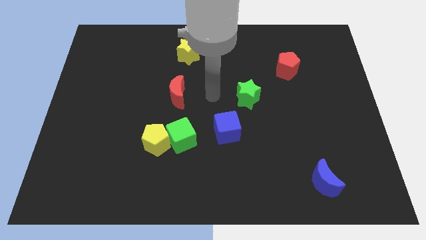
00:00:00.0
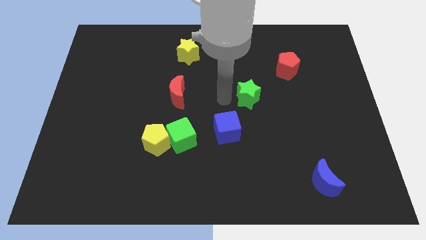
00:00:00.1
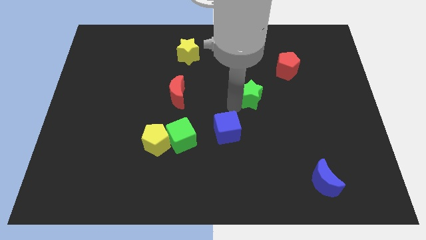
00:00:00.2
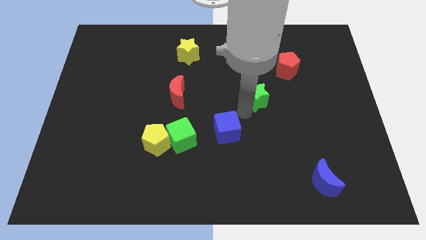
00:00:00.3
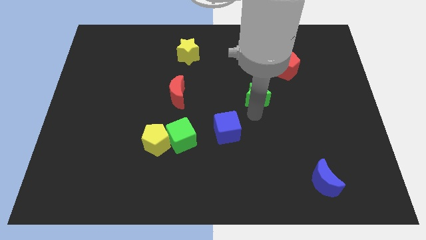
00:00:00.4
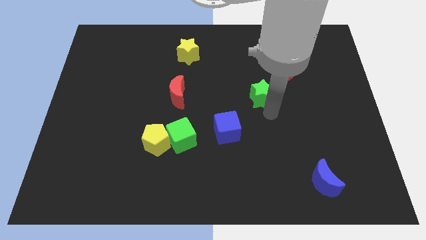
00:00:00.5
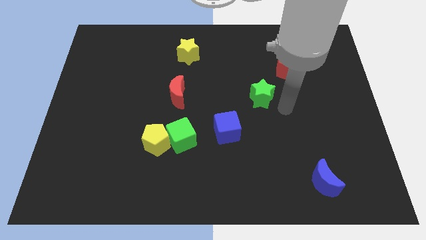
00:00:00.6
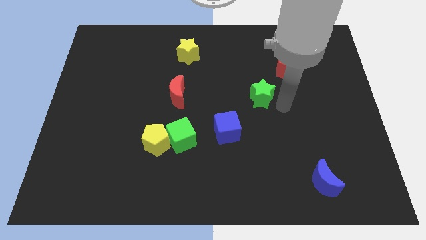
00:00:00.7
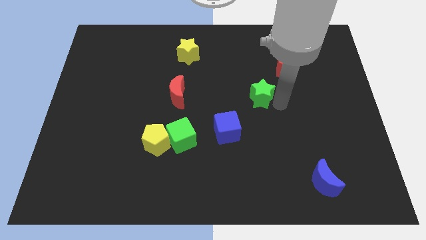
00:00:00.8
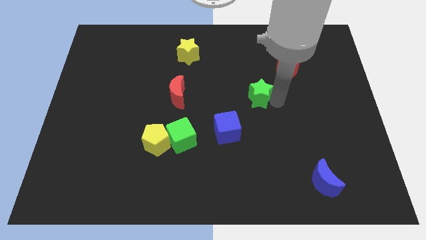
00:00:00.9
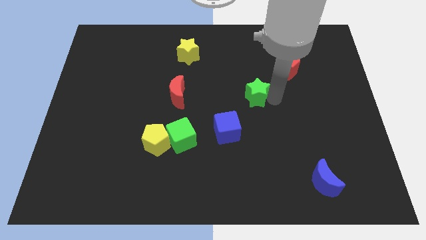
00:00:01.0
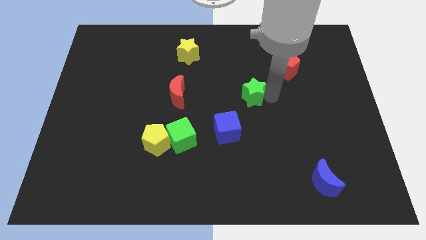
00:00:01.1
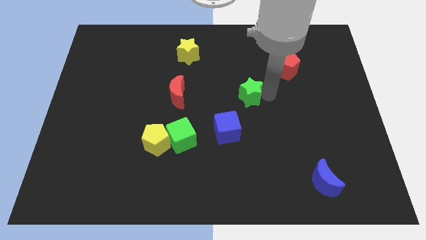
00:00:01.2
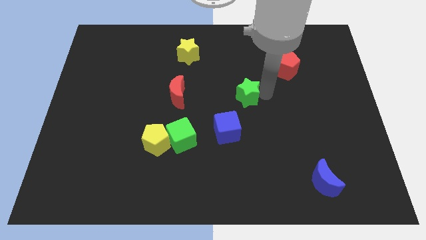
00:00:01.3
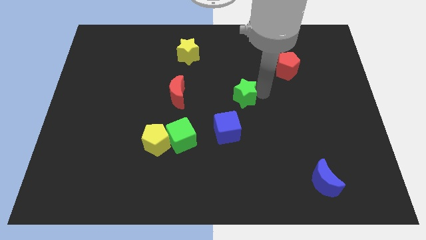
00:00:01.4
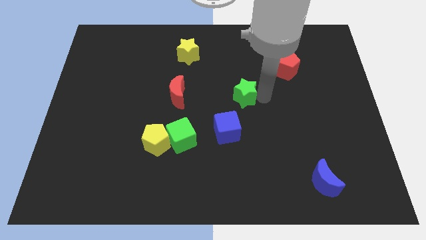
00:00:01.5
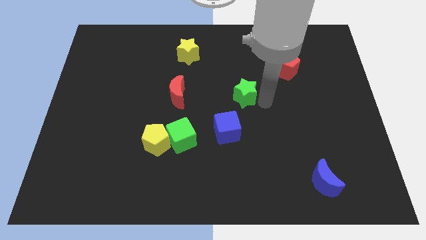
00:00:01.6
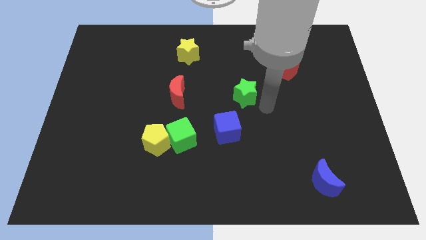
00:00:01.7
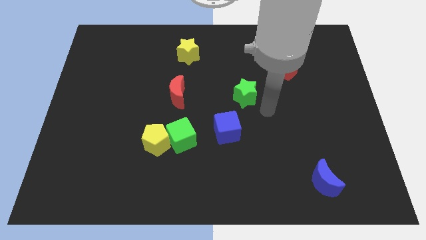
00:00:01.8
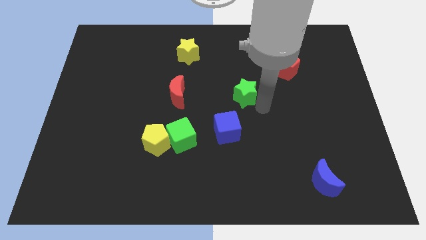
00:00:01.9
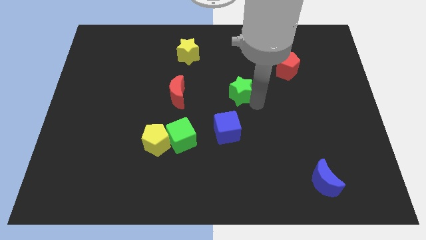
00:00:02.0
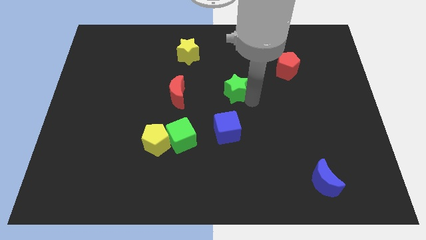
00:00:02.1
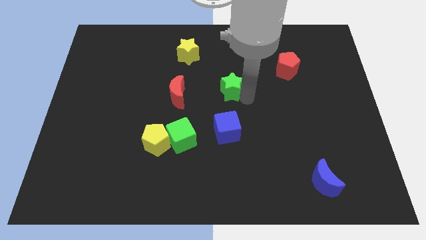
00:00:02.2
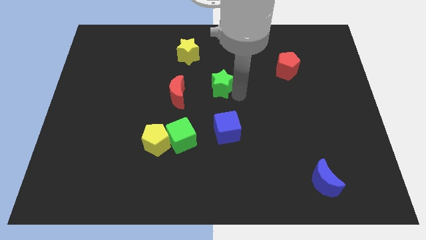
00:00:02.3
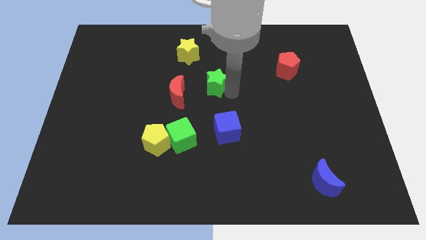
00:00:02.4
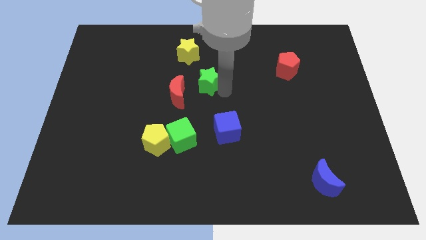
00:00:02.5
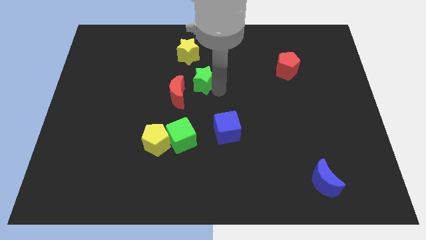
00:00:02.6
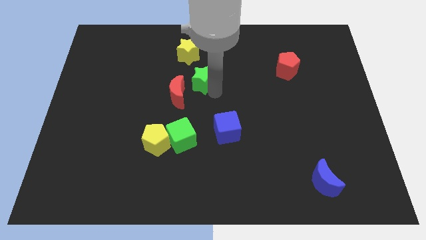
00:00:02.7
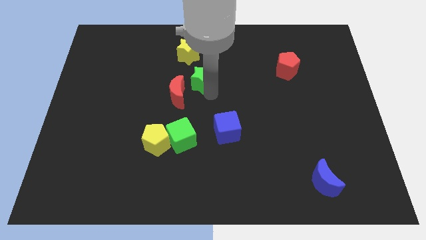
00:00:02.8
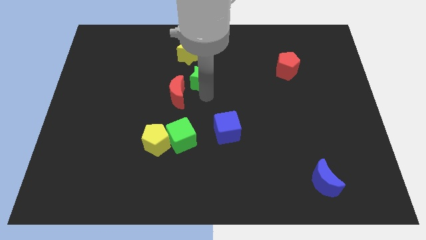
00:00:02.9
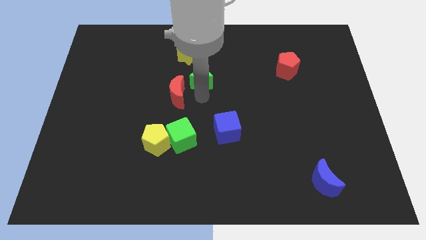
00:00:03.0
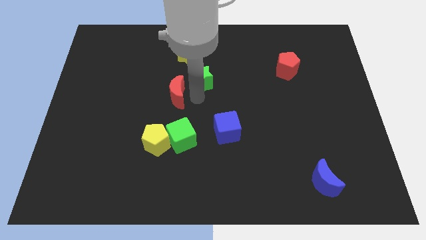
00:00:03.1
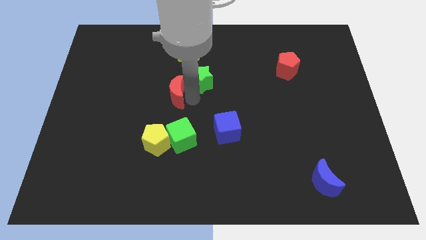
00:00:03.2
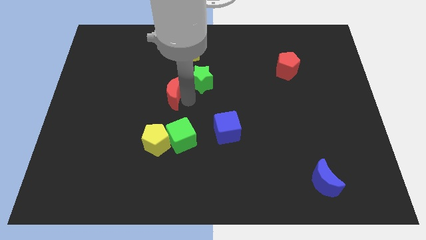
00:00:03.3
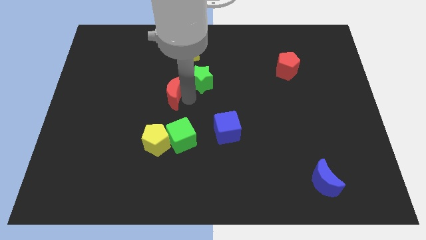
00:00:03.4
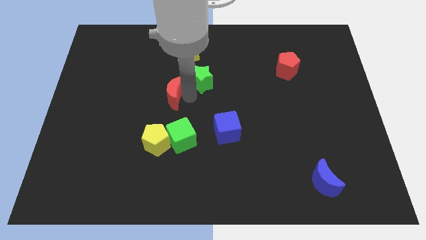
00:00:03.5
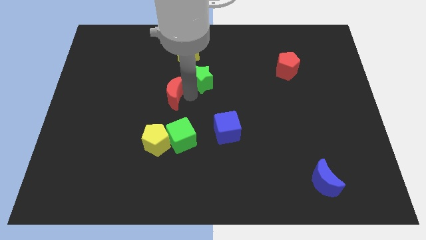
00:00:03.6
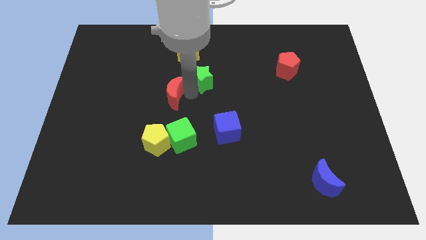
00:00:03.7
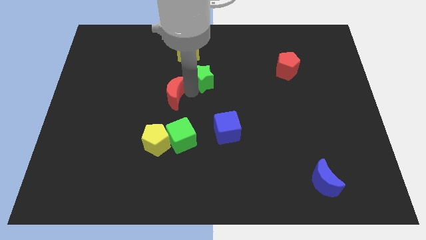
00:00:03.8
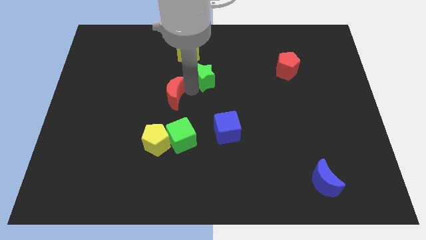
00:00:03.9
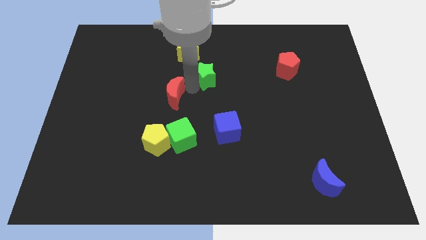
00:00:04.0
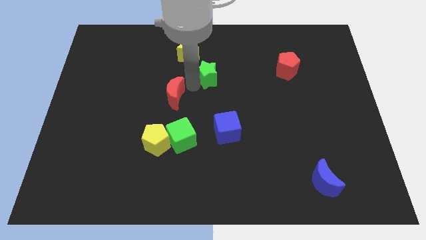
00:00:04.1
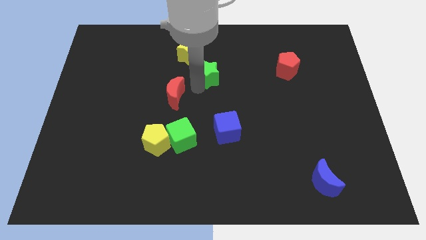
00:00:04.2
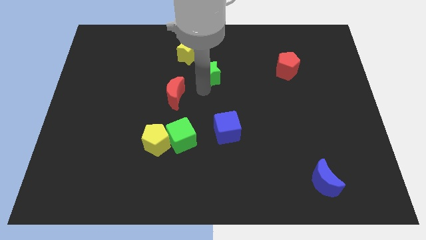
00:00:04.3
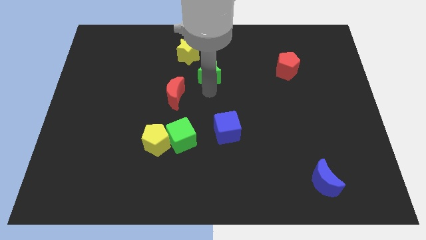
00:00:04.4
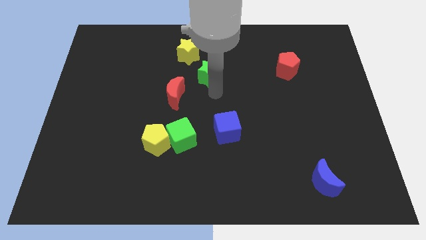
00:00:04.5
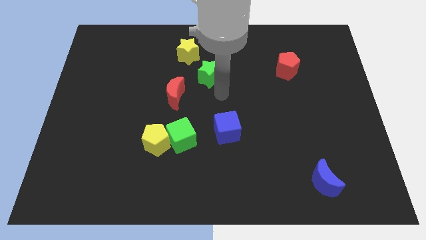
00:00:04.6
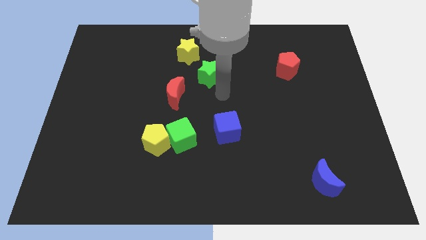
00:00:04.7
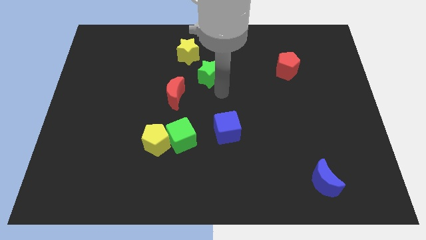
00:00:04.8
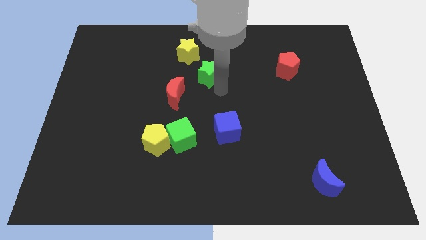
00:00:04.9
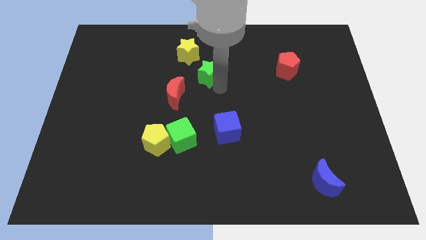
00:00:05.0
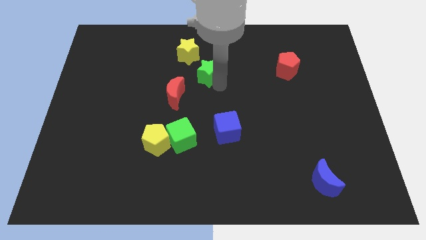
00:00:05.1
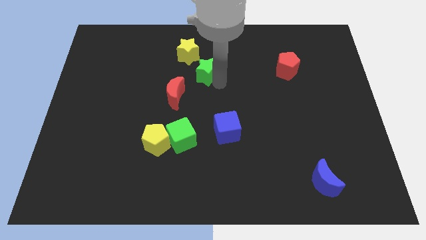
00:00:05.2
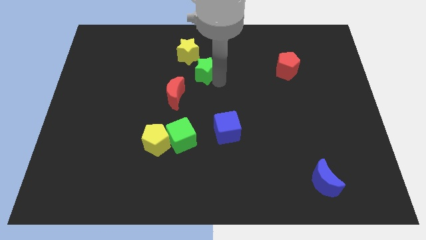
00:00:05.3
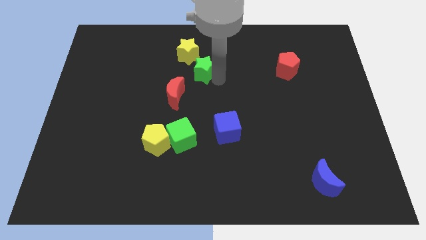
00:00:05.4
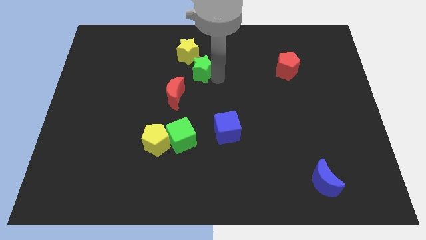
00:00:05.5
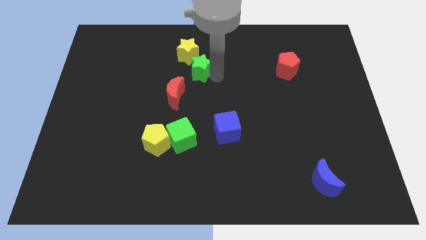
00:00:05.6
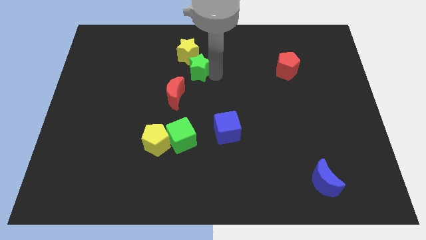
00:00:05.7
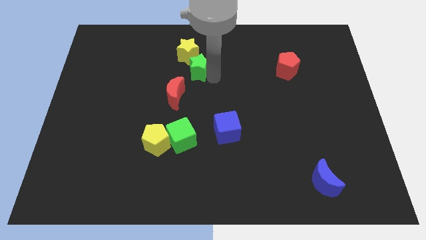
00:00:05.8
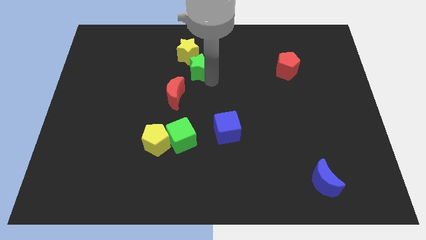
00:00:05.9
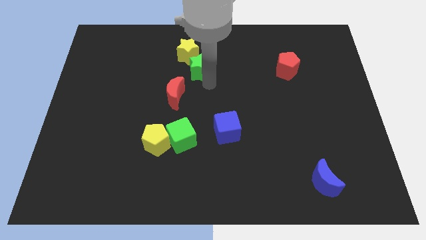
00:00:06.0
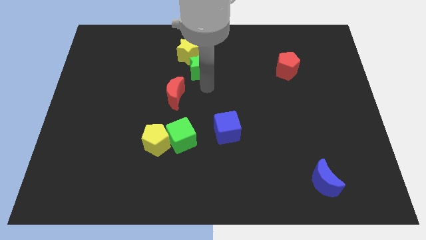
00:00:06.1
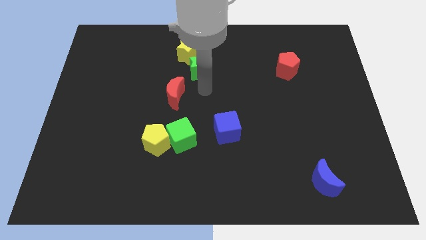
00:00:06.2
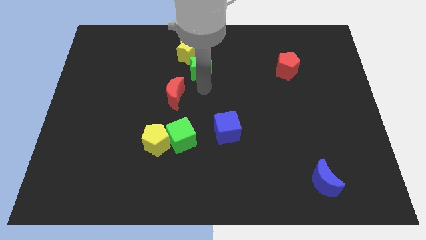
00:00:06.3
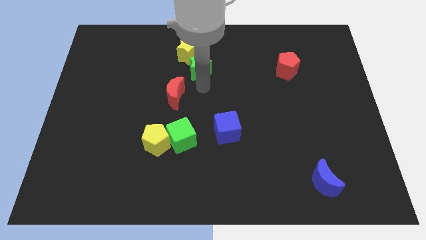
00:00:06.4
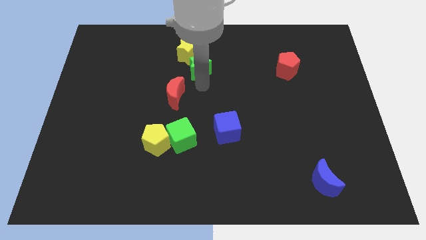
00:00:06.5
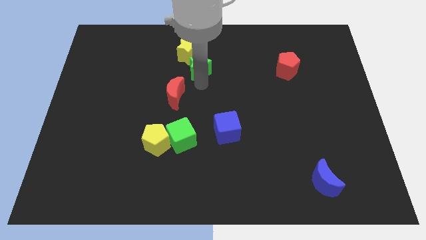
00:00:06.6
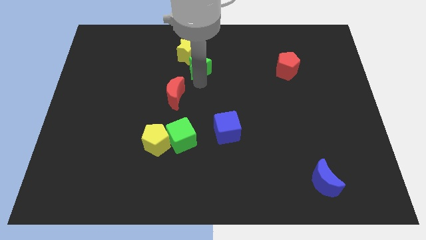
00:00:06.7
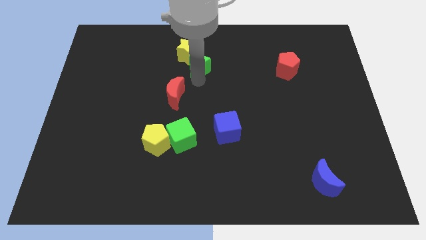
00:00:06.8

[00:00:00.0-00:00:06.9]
put the green star close to the yellow star

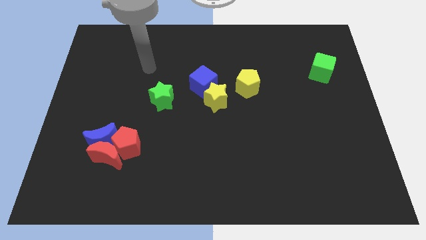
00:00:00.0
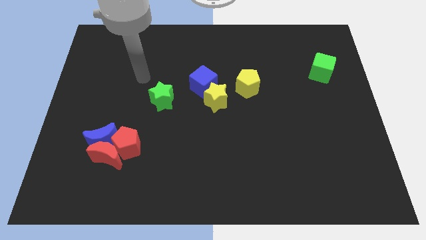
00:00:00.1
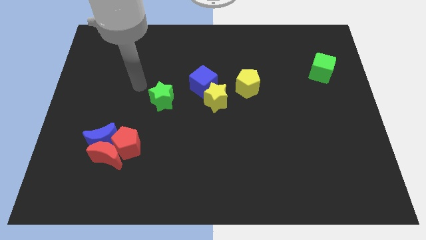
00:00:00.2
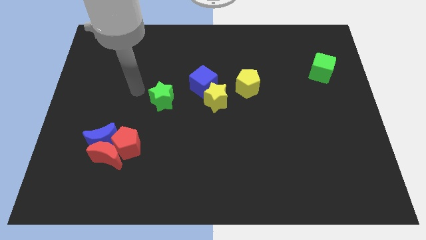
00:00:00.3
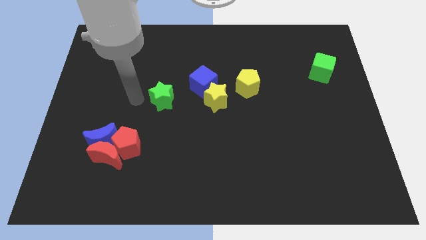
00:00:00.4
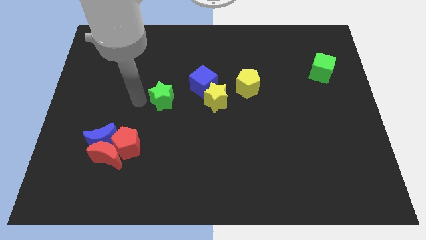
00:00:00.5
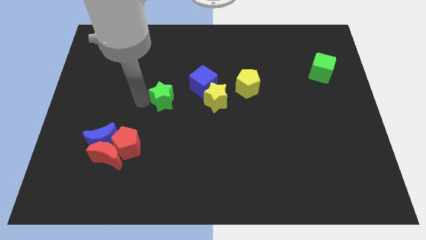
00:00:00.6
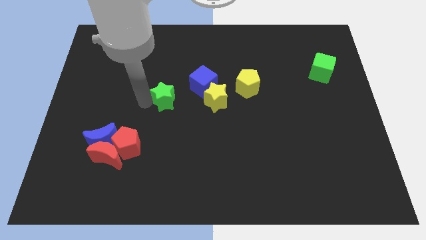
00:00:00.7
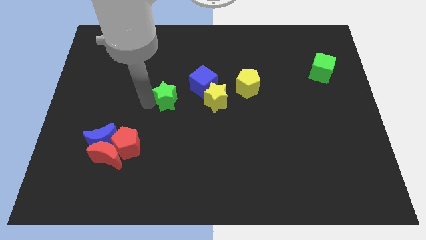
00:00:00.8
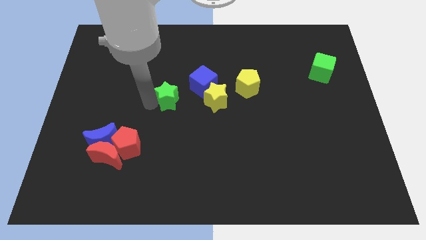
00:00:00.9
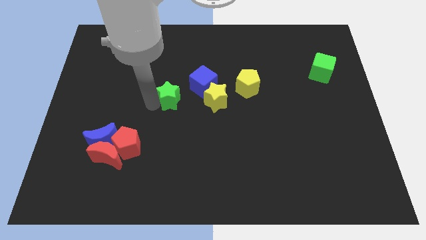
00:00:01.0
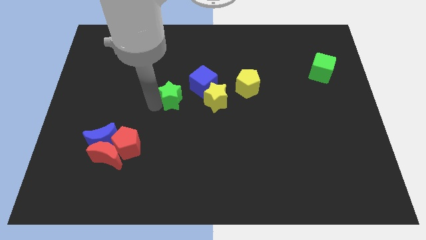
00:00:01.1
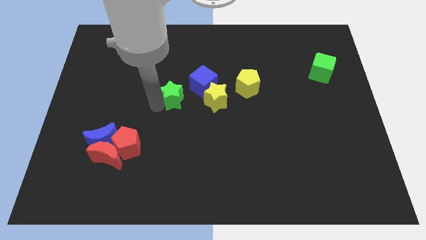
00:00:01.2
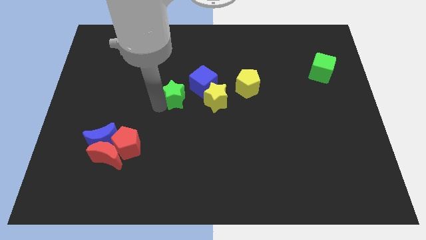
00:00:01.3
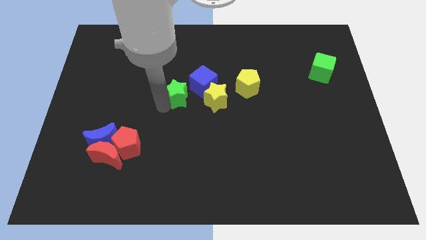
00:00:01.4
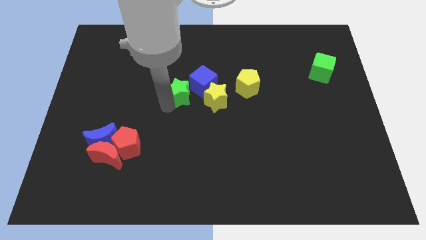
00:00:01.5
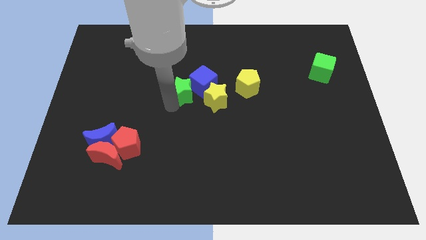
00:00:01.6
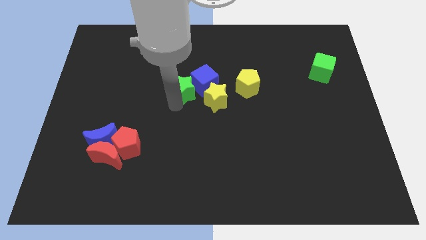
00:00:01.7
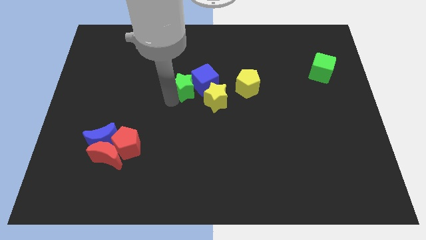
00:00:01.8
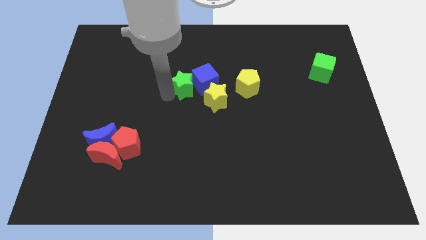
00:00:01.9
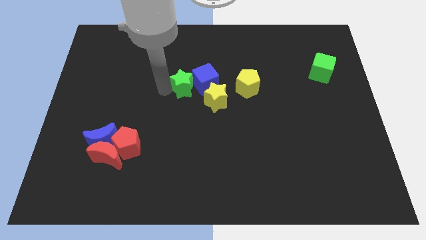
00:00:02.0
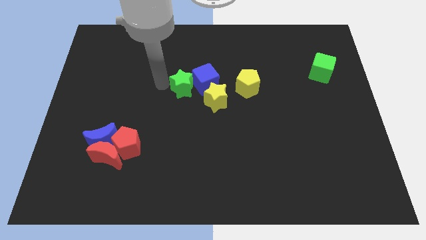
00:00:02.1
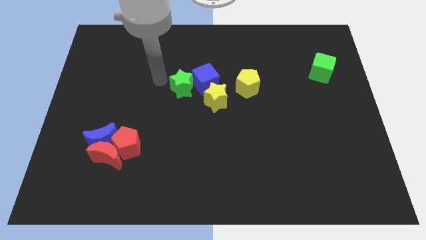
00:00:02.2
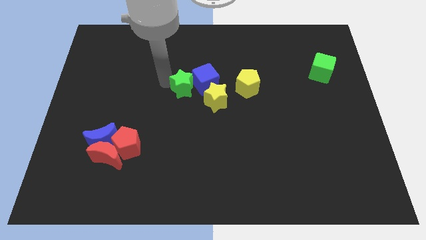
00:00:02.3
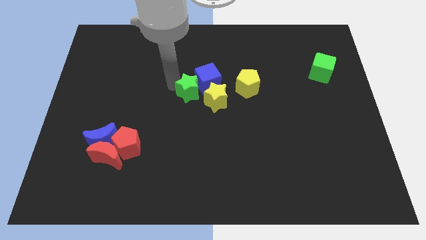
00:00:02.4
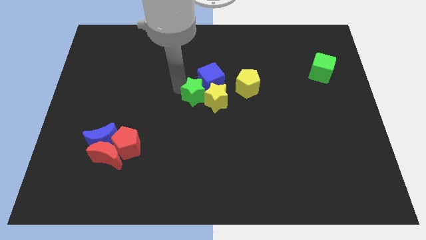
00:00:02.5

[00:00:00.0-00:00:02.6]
push the green star to the yellow star
